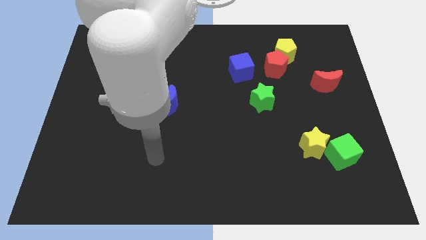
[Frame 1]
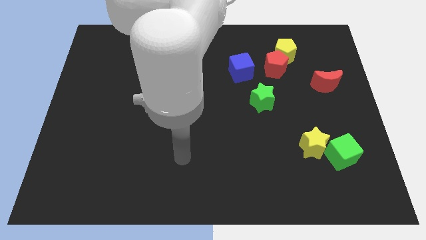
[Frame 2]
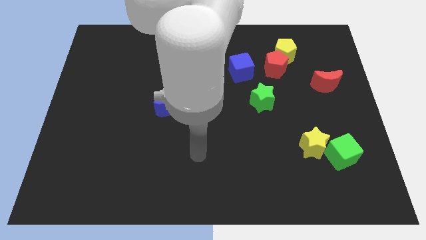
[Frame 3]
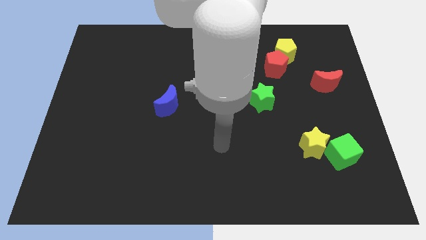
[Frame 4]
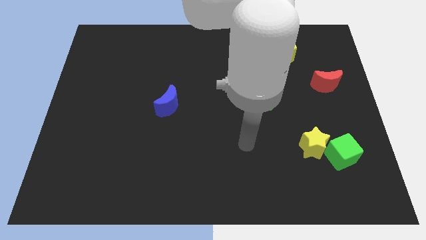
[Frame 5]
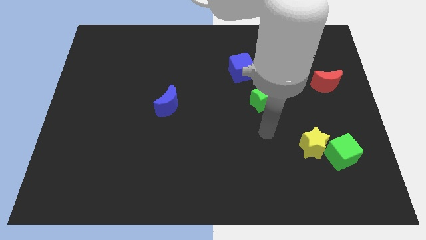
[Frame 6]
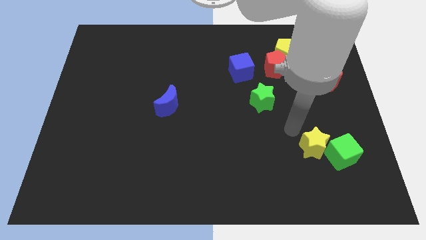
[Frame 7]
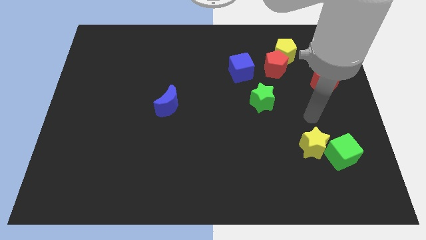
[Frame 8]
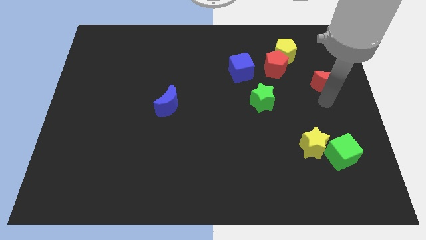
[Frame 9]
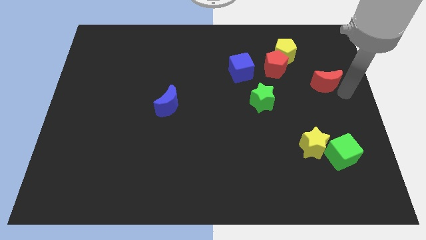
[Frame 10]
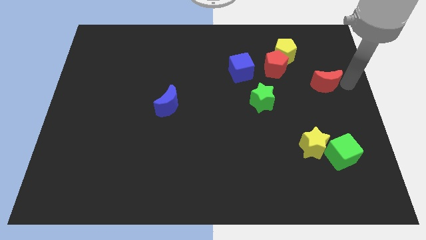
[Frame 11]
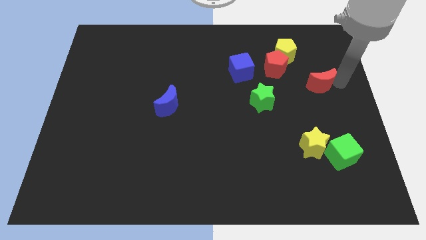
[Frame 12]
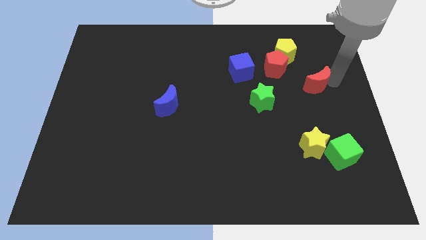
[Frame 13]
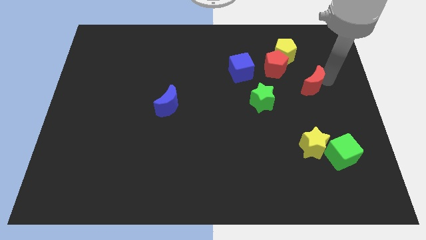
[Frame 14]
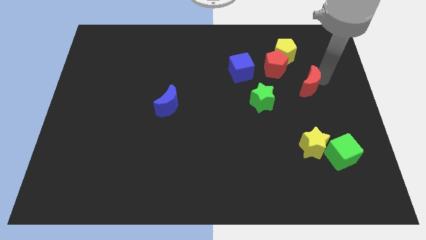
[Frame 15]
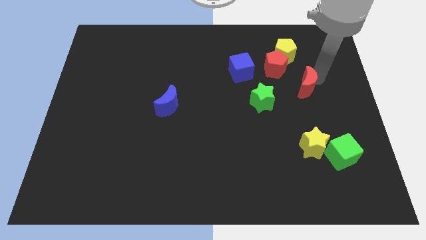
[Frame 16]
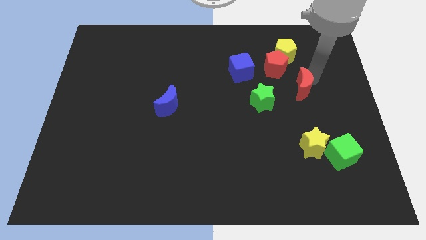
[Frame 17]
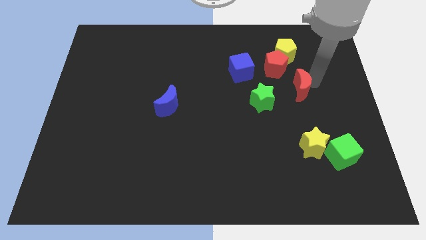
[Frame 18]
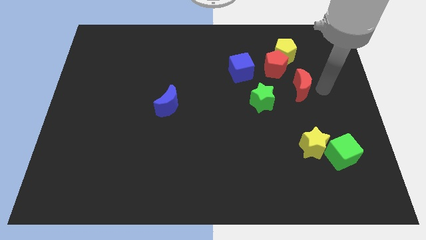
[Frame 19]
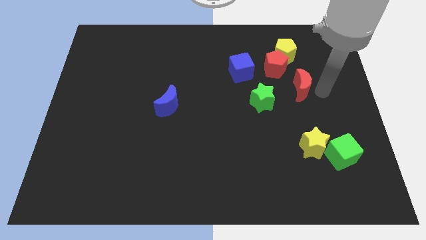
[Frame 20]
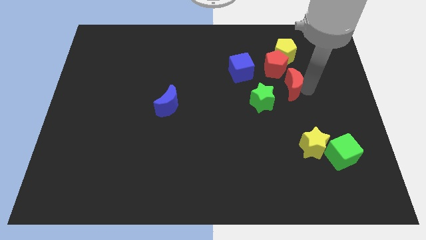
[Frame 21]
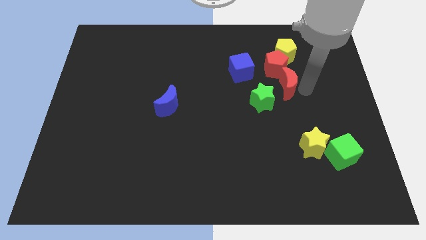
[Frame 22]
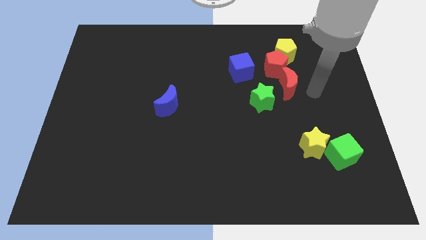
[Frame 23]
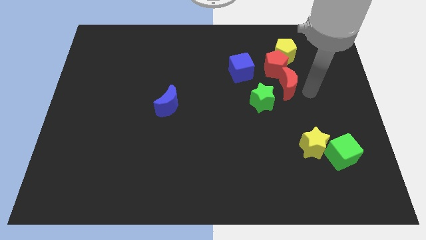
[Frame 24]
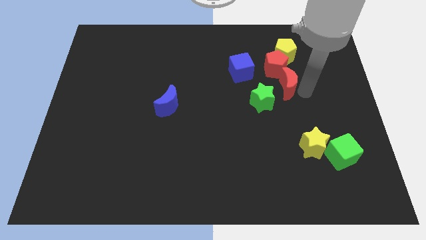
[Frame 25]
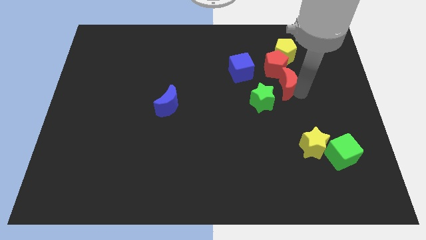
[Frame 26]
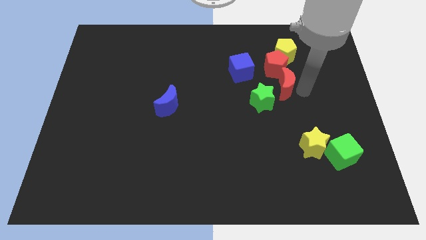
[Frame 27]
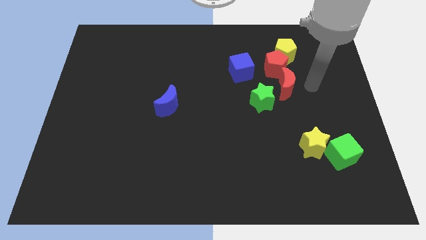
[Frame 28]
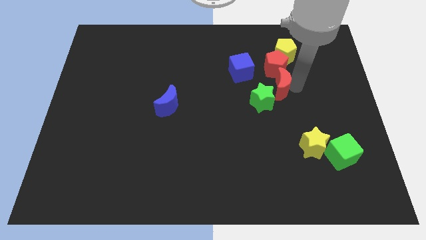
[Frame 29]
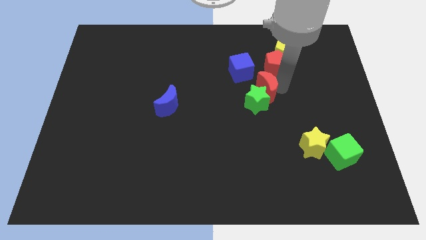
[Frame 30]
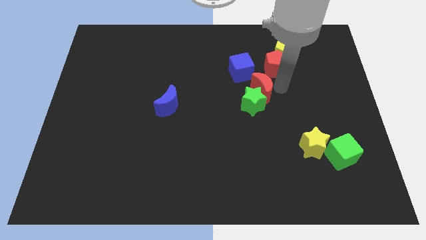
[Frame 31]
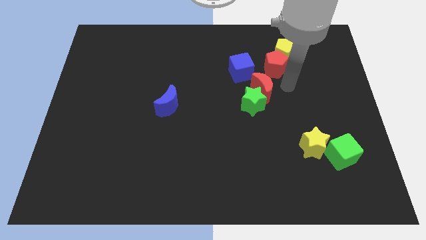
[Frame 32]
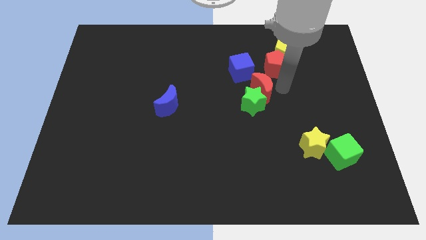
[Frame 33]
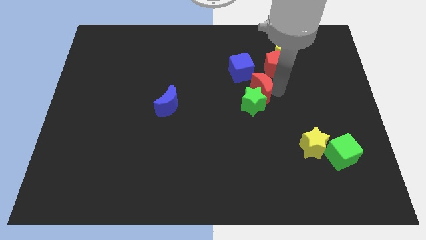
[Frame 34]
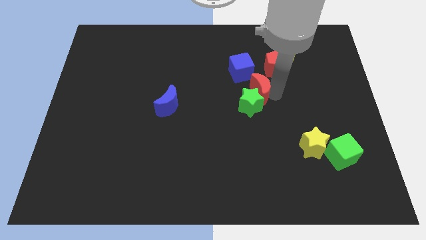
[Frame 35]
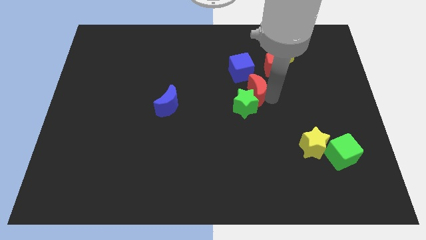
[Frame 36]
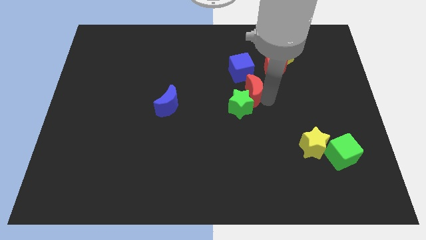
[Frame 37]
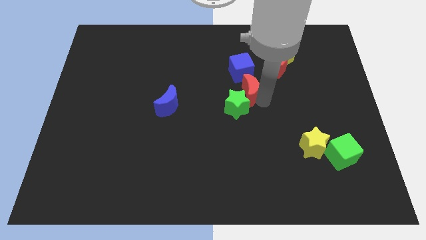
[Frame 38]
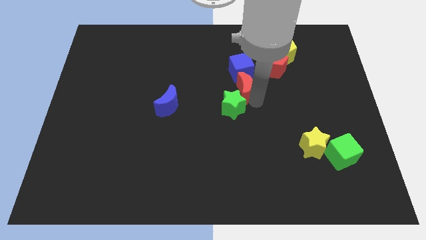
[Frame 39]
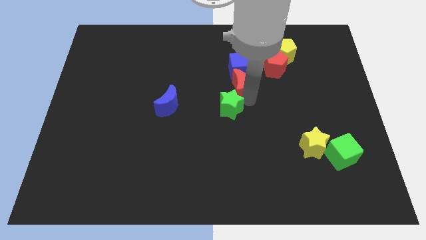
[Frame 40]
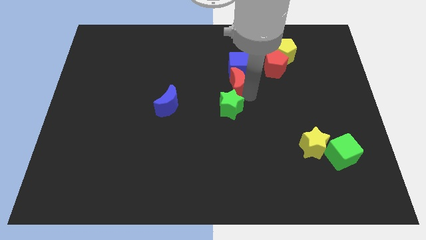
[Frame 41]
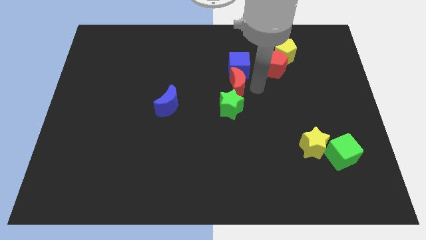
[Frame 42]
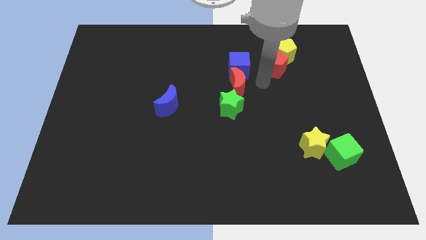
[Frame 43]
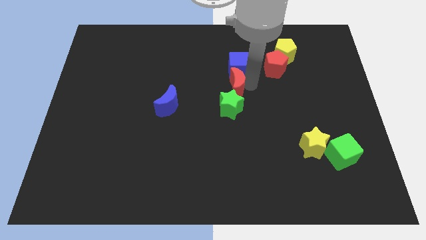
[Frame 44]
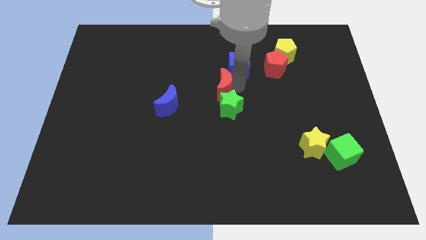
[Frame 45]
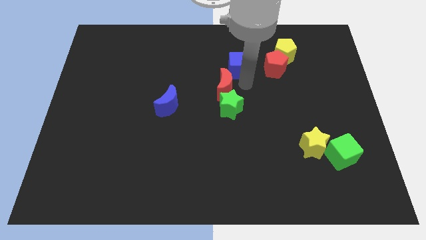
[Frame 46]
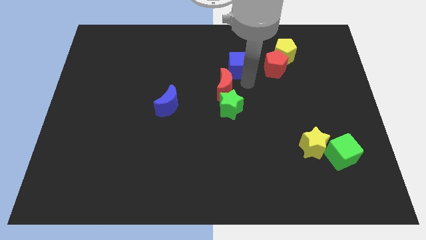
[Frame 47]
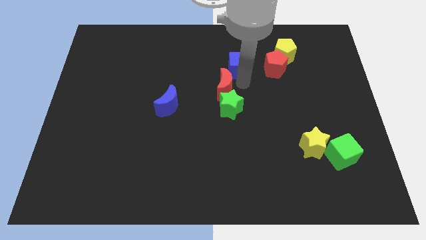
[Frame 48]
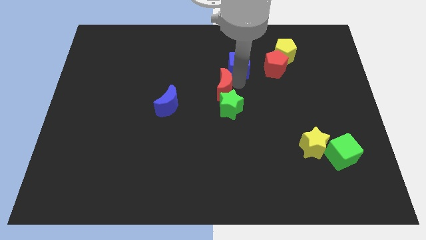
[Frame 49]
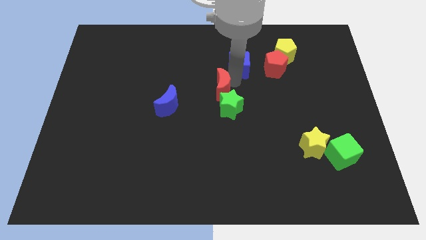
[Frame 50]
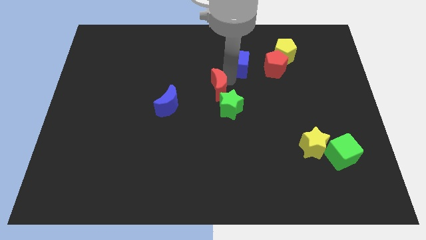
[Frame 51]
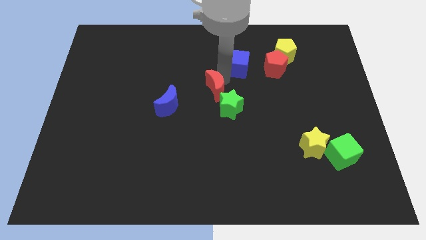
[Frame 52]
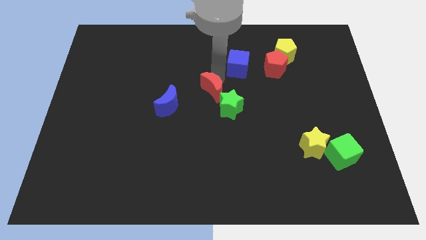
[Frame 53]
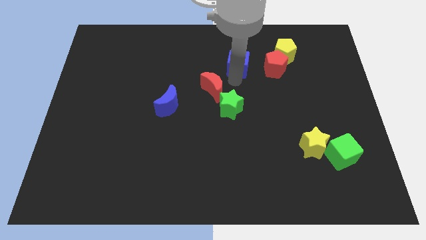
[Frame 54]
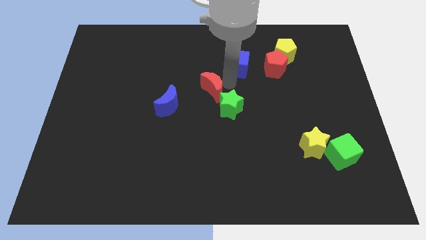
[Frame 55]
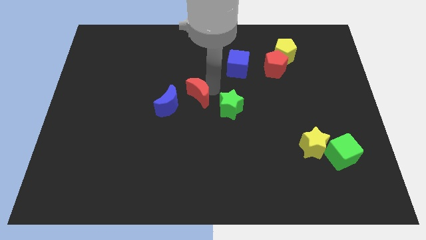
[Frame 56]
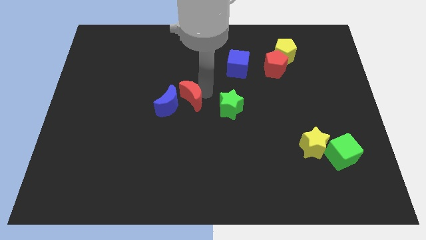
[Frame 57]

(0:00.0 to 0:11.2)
push the red moon towards the blue moon

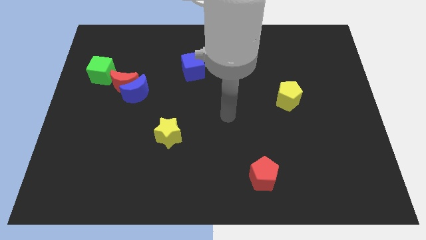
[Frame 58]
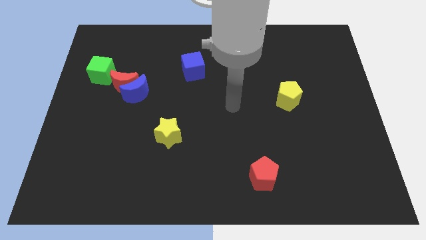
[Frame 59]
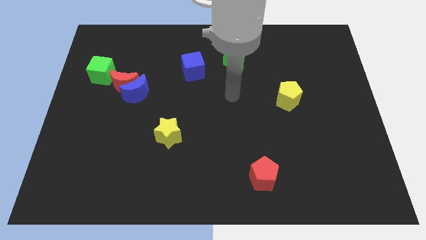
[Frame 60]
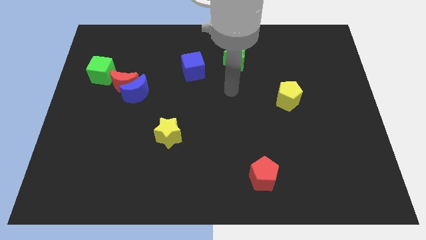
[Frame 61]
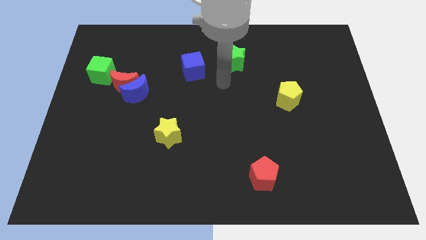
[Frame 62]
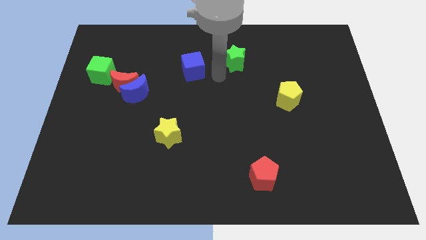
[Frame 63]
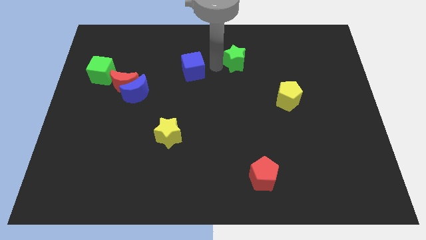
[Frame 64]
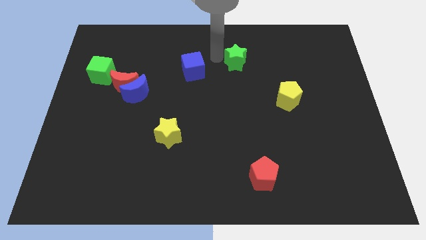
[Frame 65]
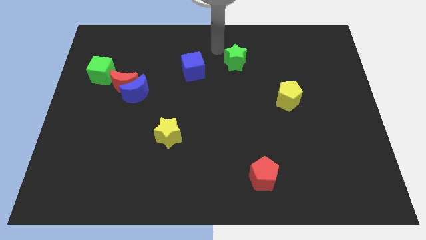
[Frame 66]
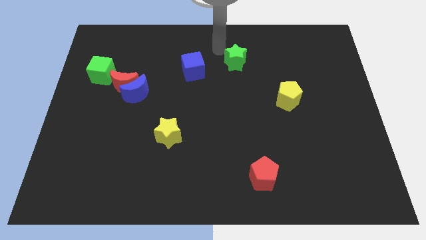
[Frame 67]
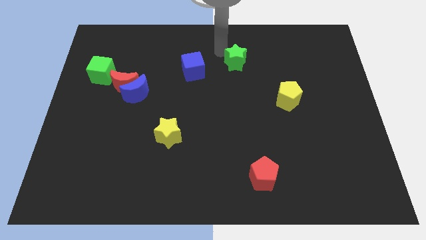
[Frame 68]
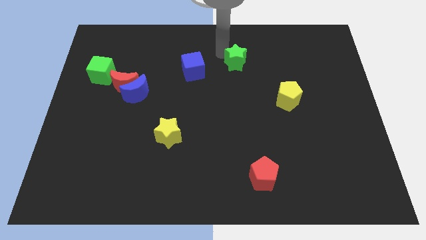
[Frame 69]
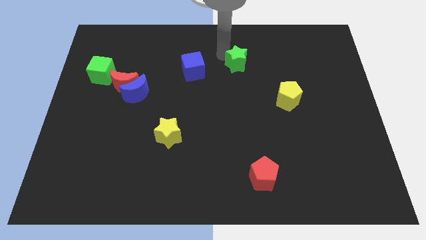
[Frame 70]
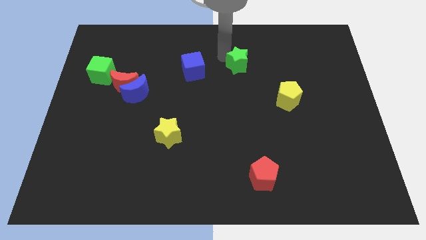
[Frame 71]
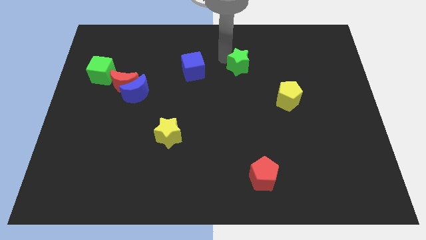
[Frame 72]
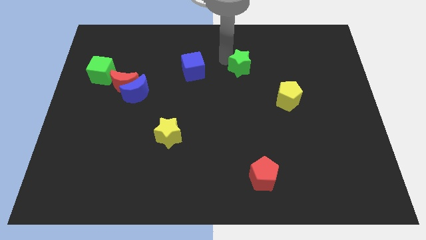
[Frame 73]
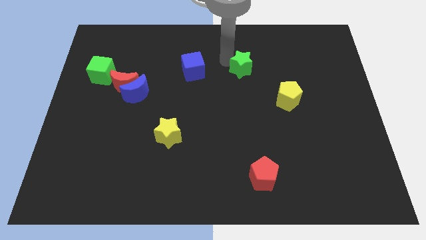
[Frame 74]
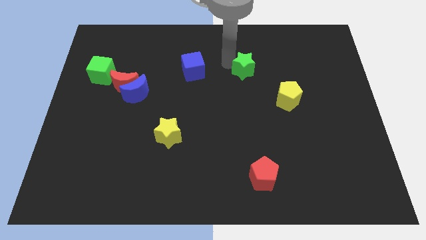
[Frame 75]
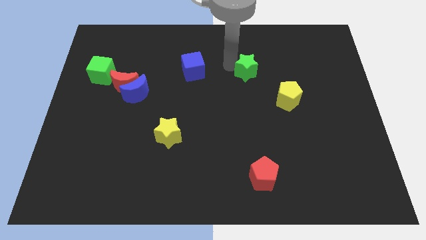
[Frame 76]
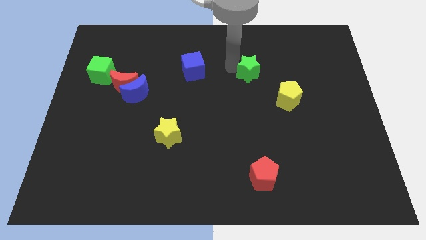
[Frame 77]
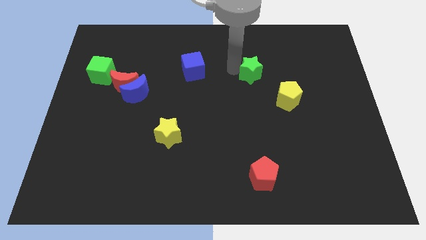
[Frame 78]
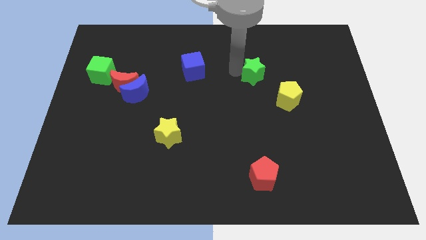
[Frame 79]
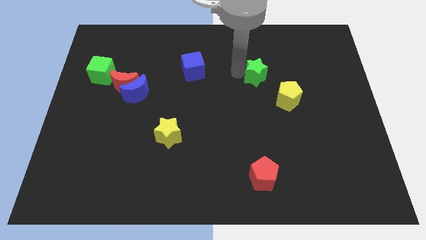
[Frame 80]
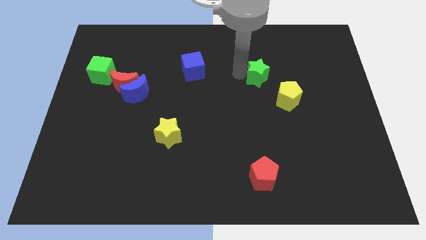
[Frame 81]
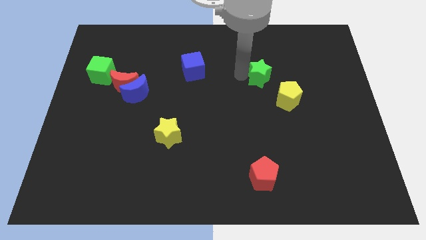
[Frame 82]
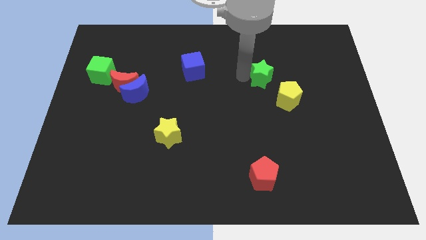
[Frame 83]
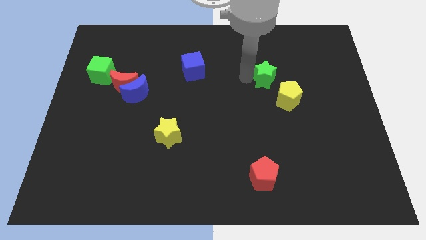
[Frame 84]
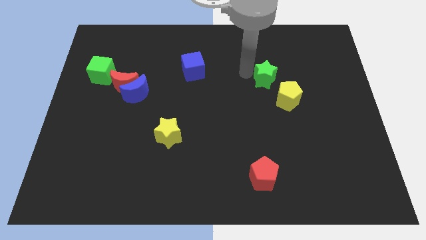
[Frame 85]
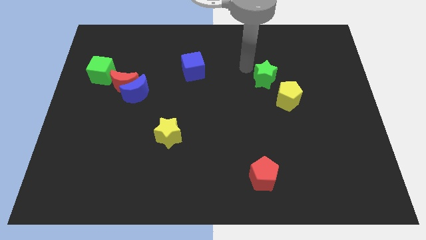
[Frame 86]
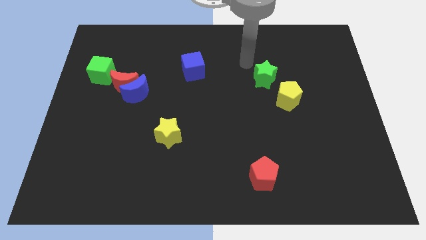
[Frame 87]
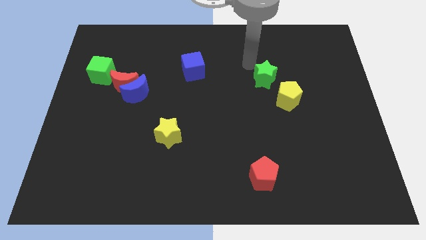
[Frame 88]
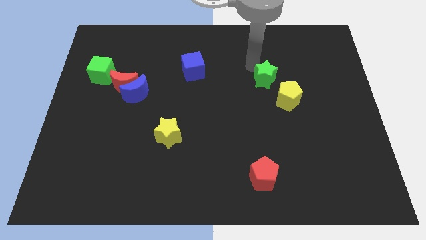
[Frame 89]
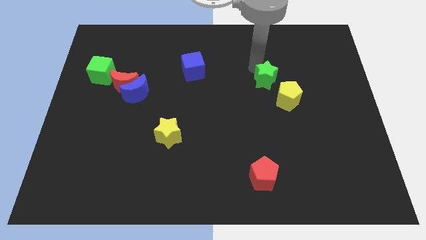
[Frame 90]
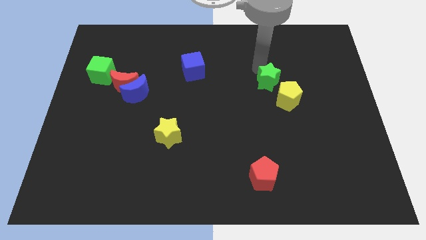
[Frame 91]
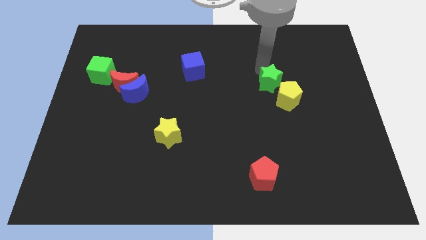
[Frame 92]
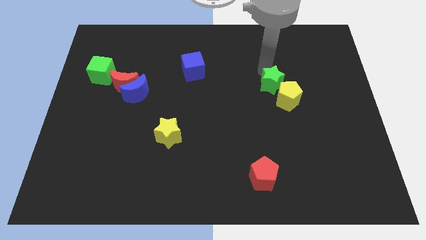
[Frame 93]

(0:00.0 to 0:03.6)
put the green star next to the yellow pentagon
